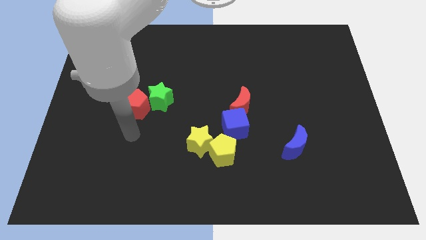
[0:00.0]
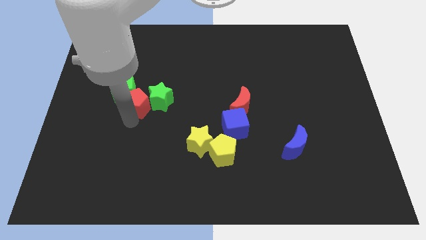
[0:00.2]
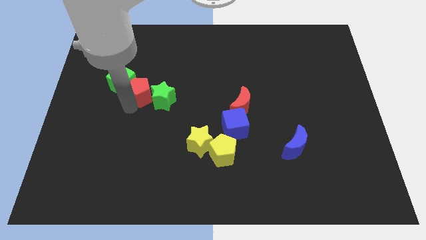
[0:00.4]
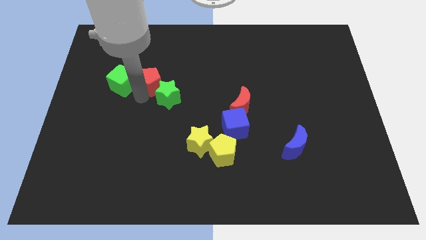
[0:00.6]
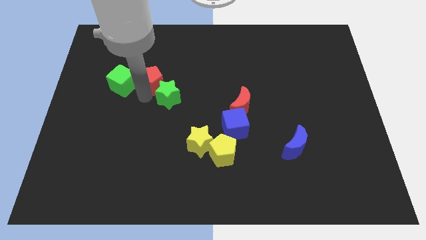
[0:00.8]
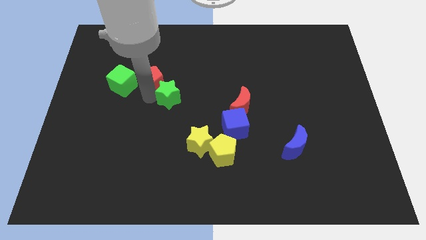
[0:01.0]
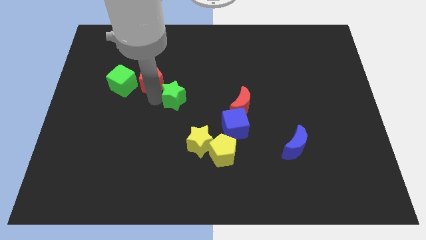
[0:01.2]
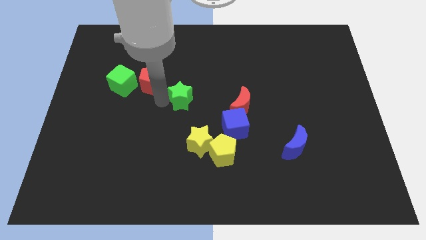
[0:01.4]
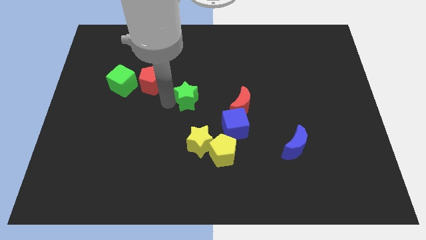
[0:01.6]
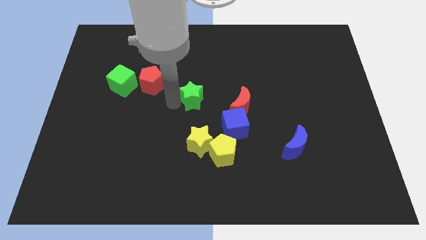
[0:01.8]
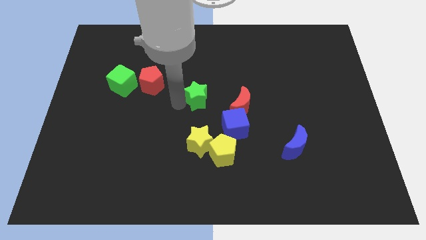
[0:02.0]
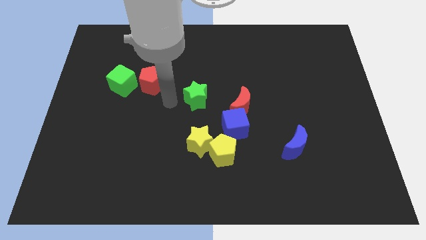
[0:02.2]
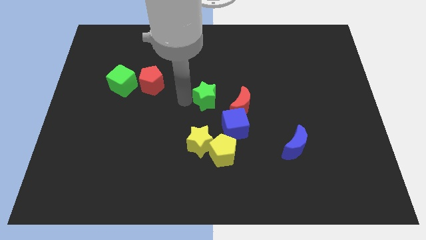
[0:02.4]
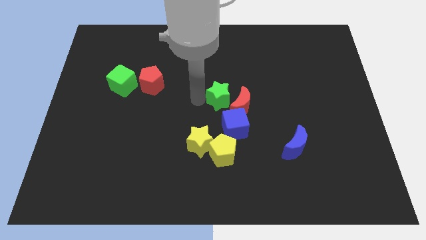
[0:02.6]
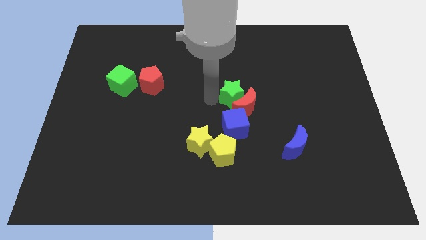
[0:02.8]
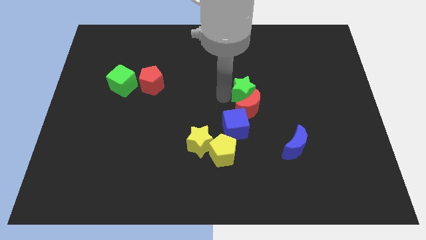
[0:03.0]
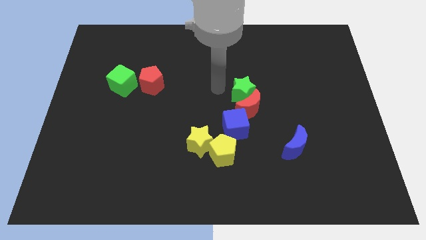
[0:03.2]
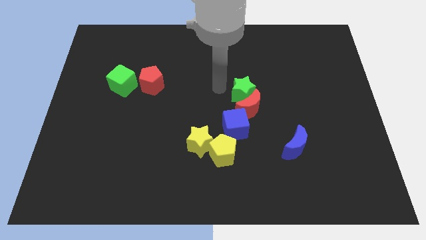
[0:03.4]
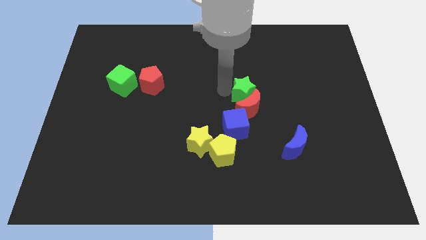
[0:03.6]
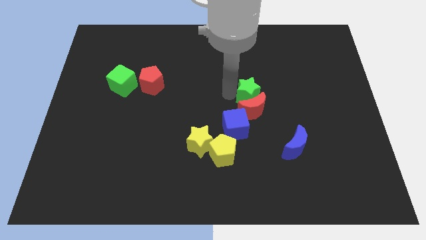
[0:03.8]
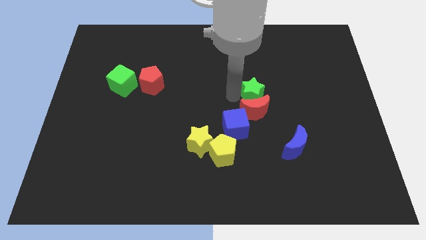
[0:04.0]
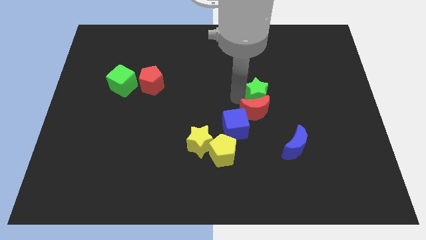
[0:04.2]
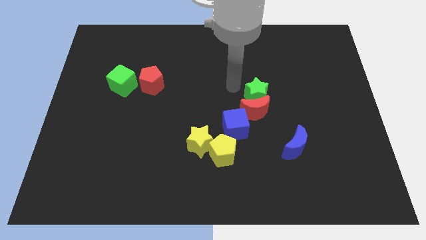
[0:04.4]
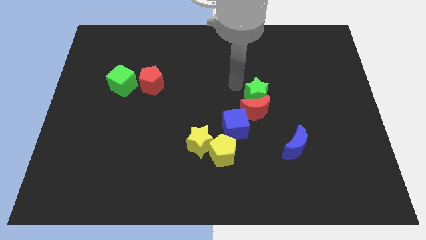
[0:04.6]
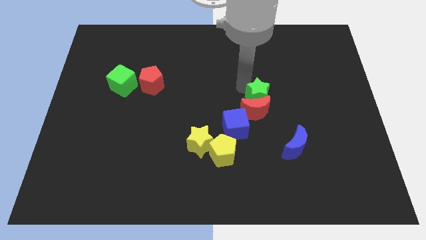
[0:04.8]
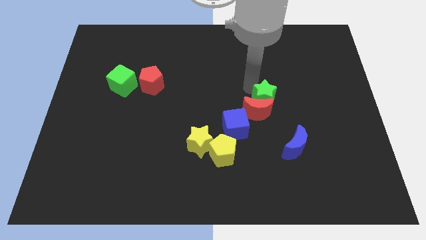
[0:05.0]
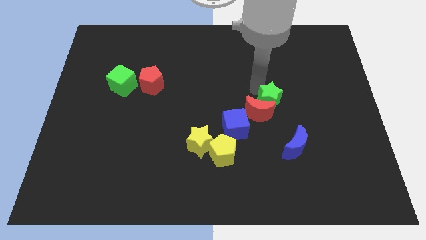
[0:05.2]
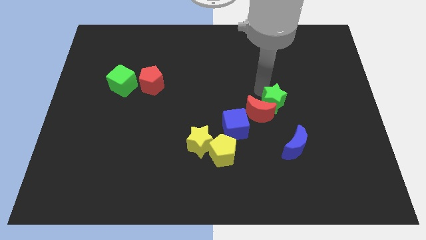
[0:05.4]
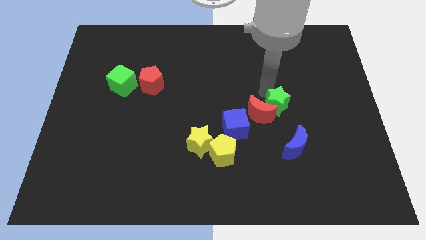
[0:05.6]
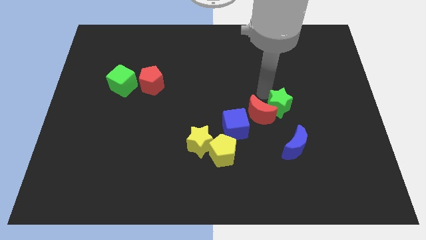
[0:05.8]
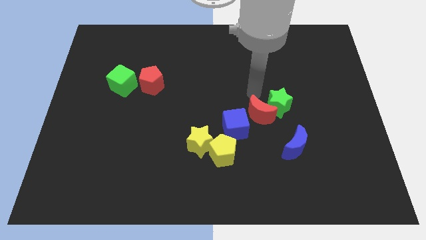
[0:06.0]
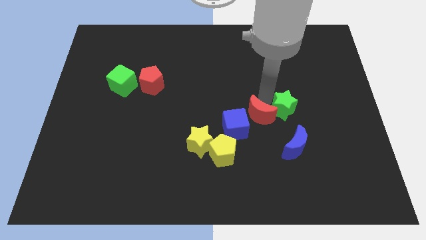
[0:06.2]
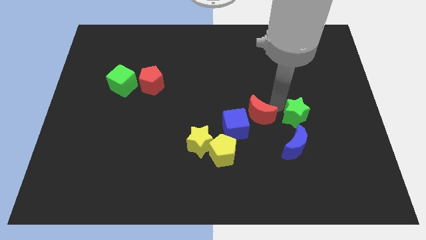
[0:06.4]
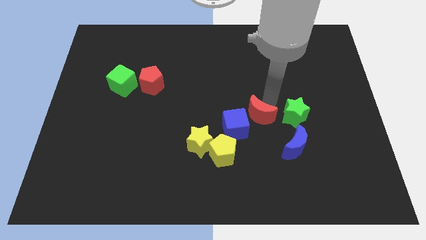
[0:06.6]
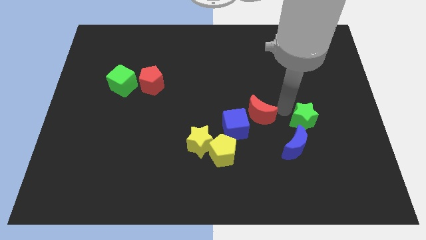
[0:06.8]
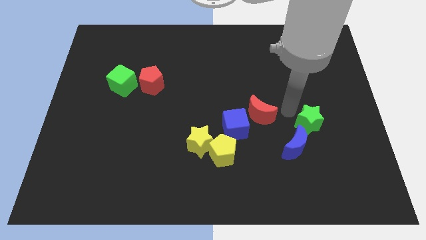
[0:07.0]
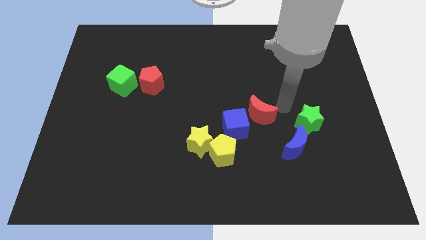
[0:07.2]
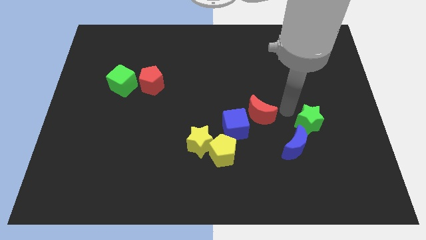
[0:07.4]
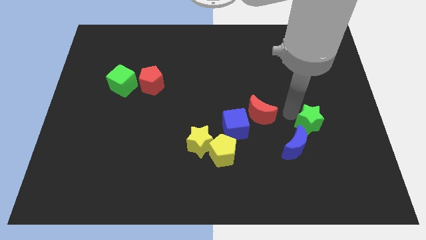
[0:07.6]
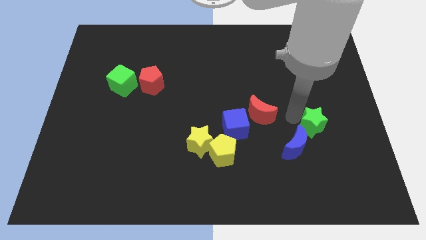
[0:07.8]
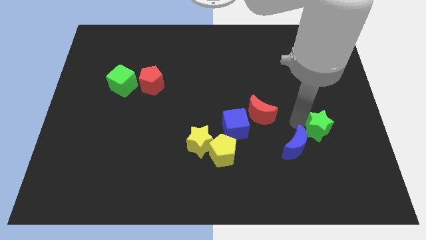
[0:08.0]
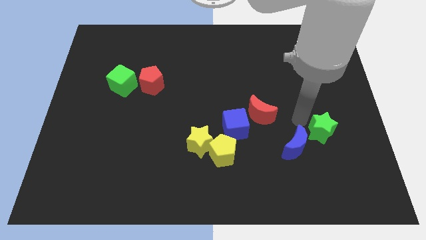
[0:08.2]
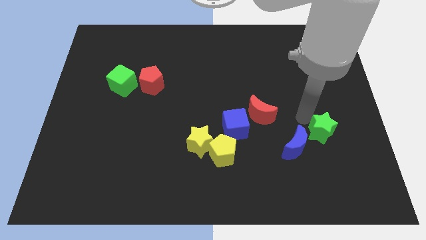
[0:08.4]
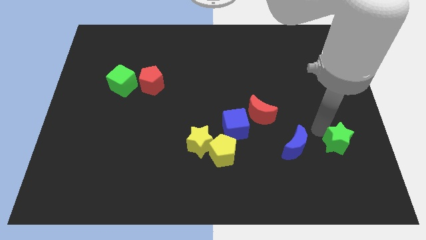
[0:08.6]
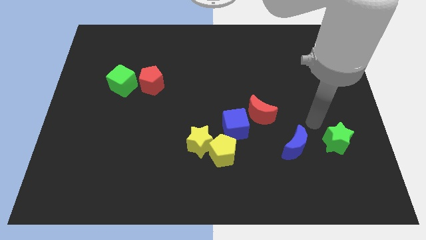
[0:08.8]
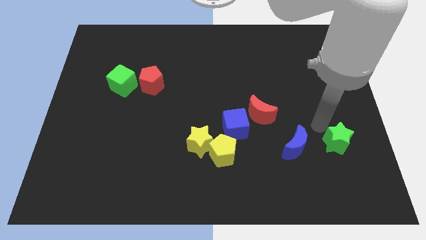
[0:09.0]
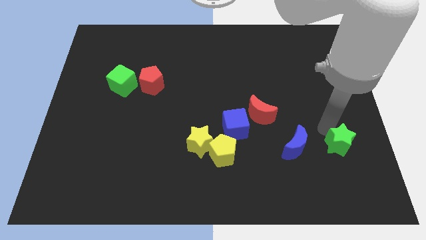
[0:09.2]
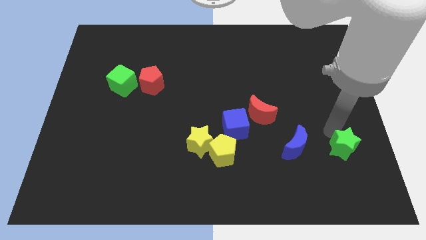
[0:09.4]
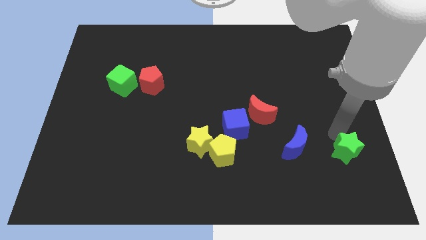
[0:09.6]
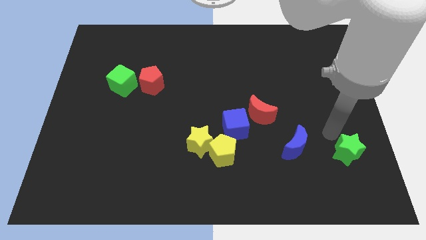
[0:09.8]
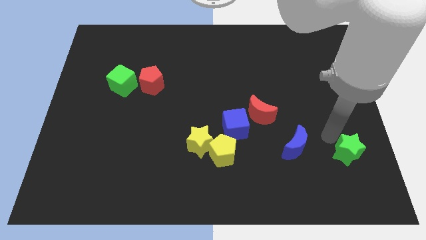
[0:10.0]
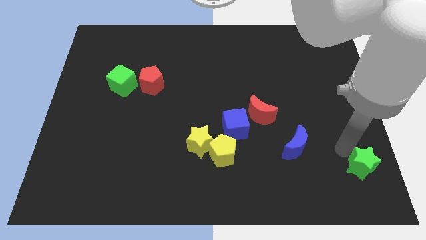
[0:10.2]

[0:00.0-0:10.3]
push the green star to the lower right corner

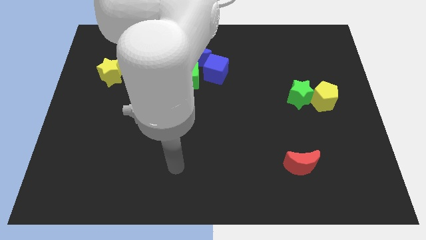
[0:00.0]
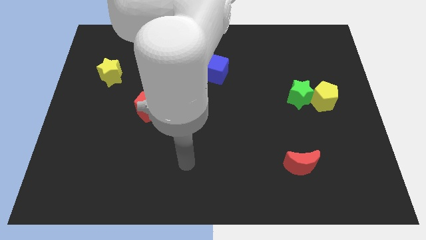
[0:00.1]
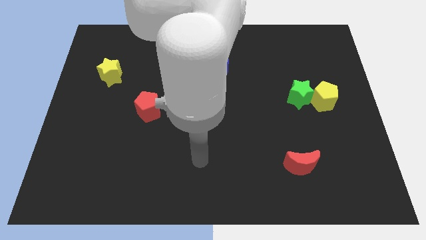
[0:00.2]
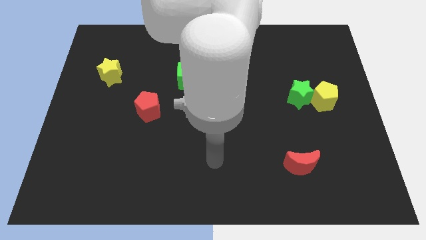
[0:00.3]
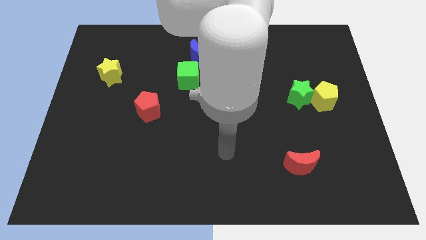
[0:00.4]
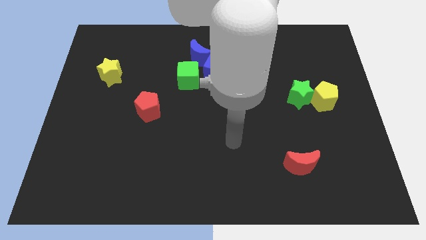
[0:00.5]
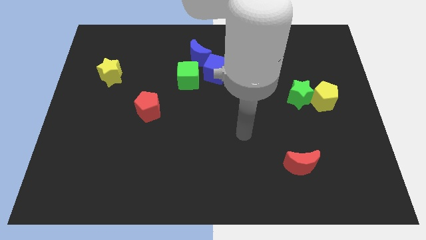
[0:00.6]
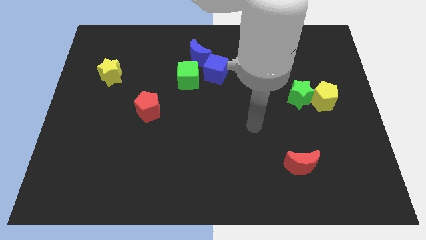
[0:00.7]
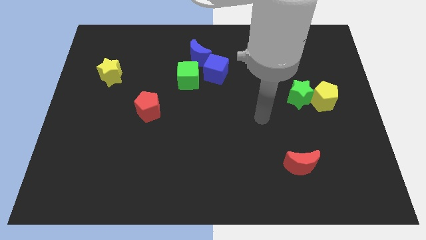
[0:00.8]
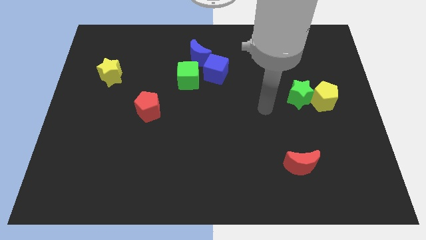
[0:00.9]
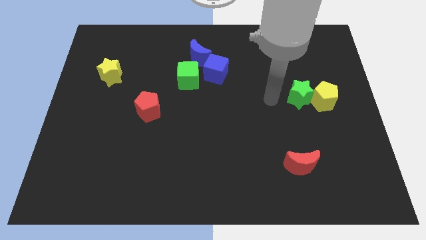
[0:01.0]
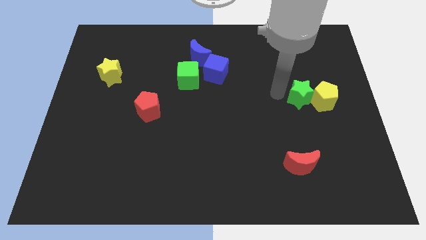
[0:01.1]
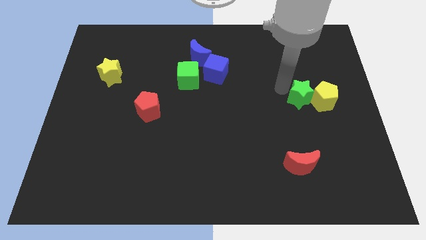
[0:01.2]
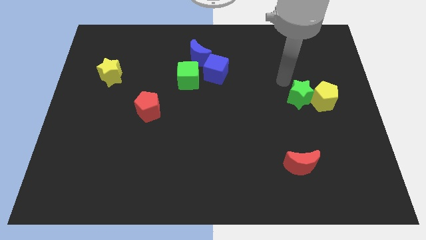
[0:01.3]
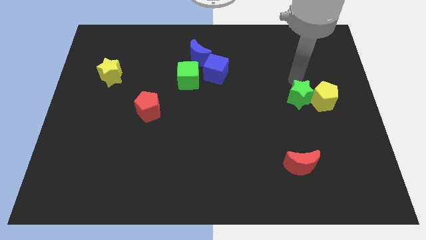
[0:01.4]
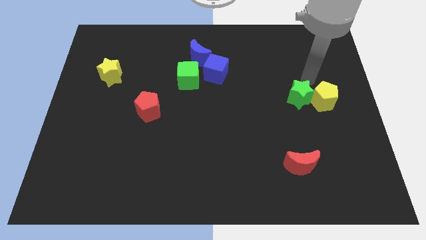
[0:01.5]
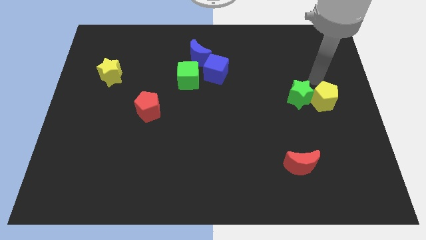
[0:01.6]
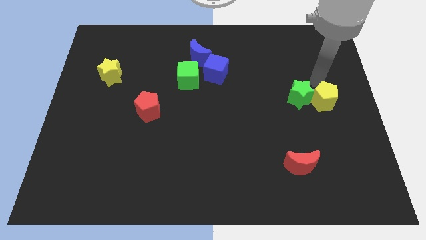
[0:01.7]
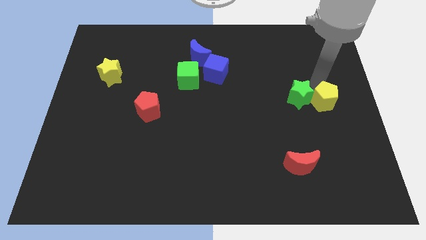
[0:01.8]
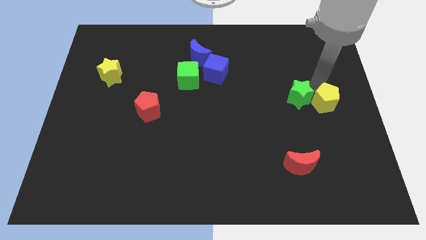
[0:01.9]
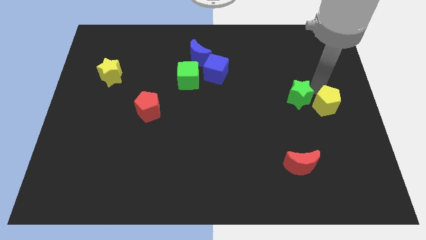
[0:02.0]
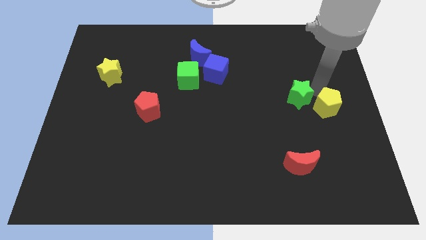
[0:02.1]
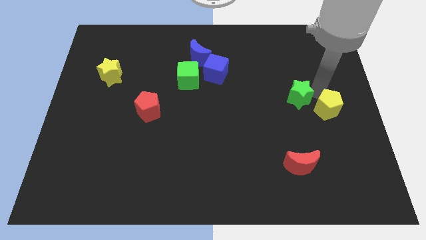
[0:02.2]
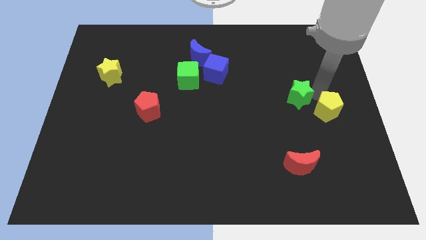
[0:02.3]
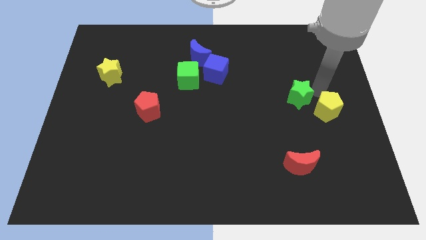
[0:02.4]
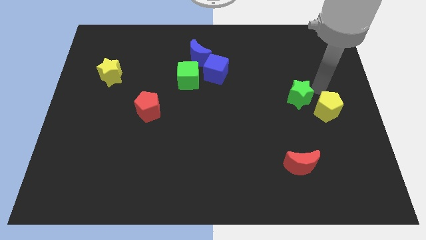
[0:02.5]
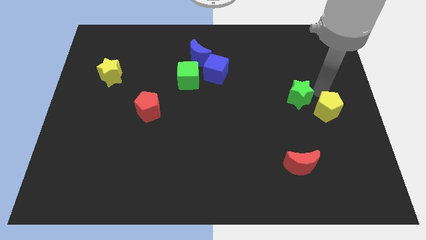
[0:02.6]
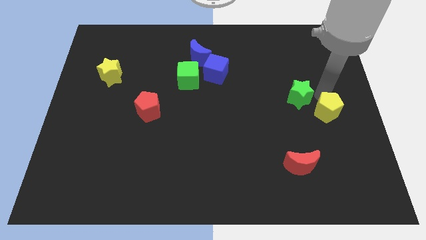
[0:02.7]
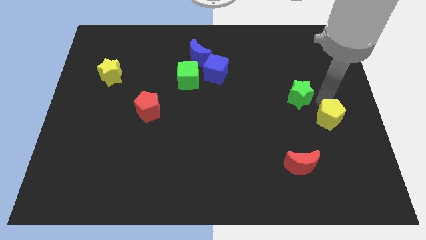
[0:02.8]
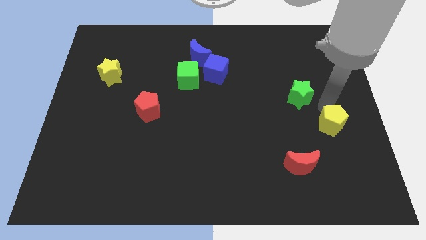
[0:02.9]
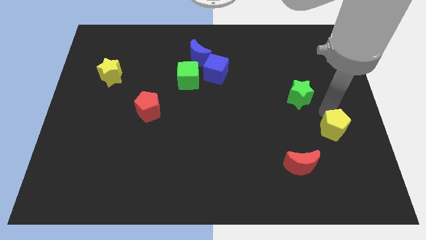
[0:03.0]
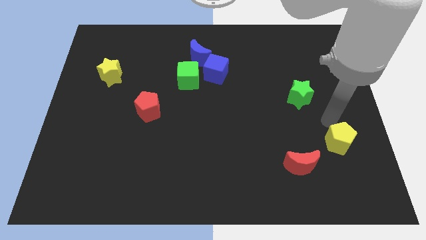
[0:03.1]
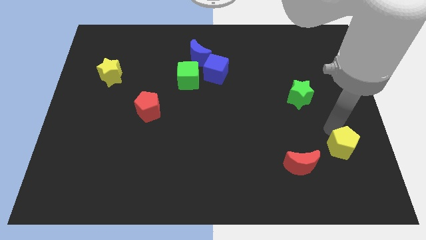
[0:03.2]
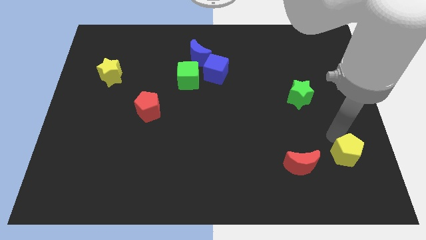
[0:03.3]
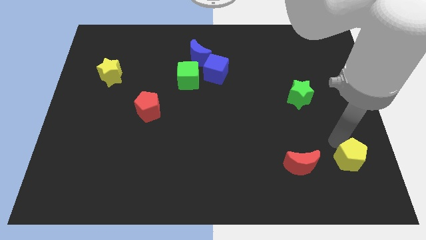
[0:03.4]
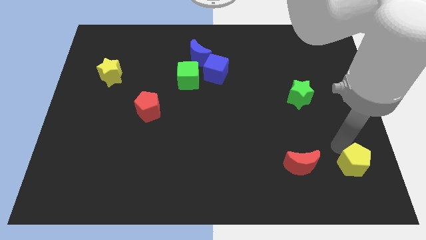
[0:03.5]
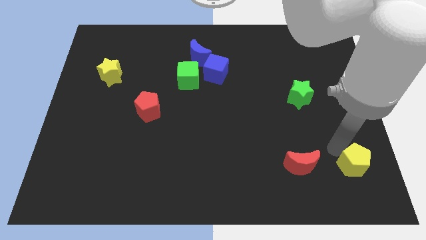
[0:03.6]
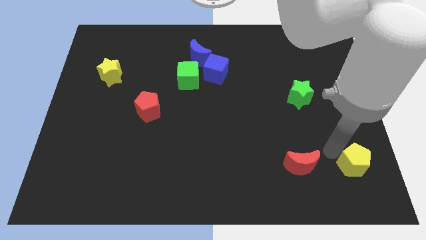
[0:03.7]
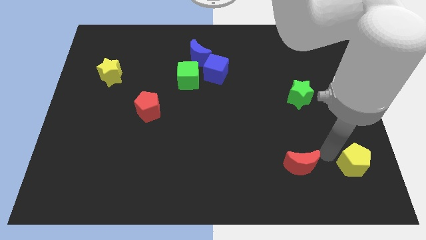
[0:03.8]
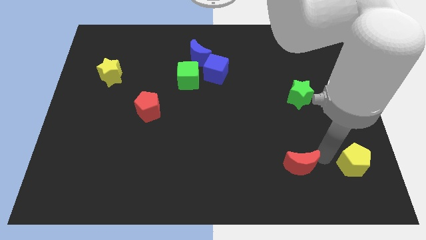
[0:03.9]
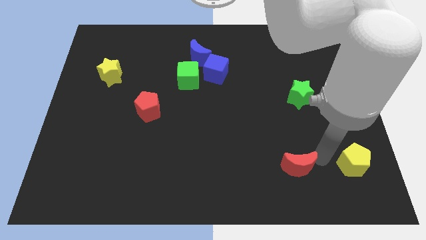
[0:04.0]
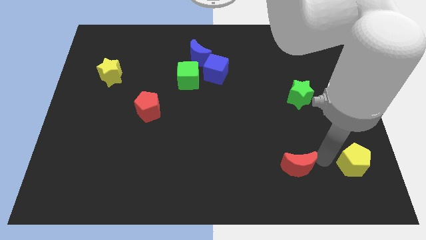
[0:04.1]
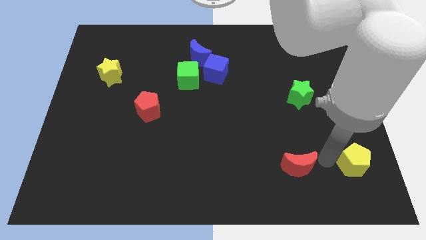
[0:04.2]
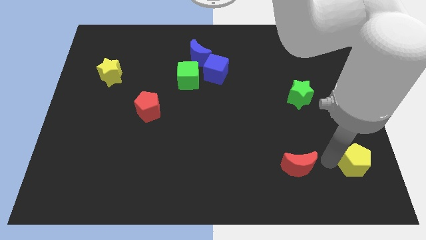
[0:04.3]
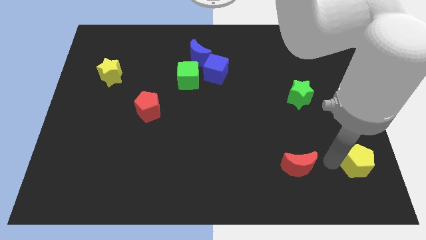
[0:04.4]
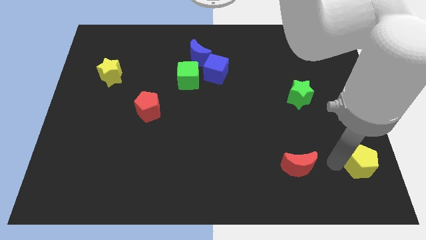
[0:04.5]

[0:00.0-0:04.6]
slide the yellow pentagon to the bottom right of the board
